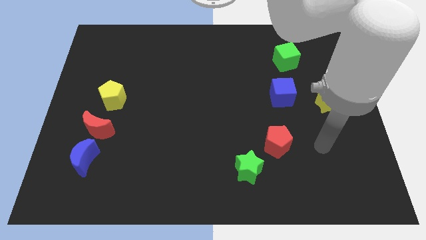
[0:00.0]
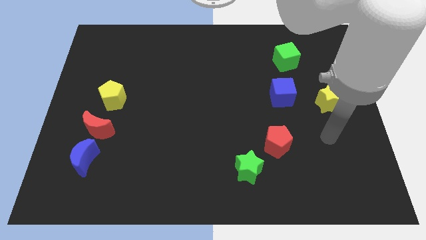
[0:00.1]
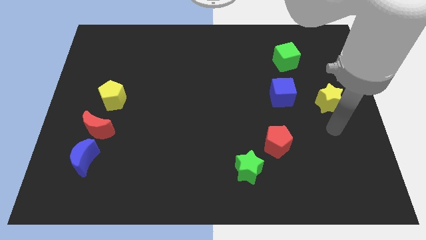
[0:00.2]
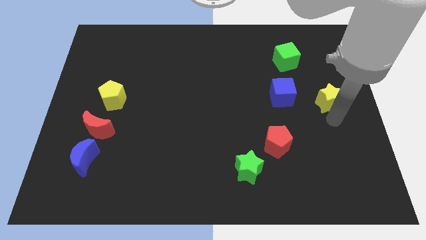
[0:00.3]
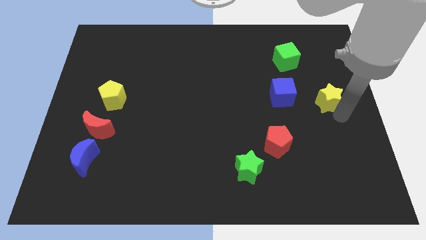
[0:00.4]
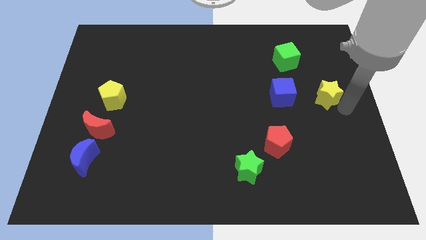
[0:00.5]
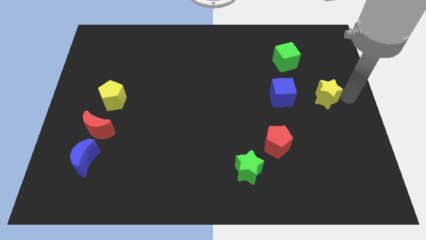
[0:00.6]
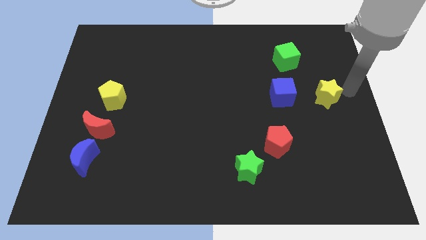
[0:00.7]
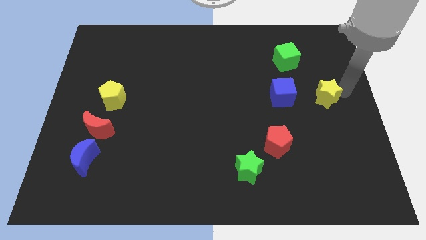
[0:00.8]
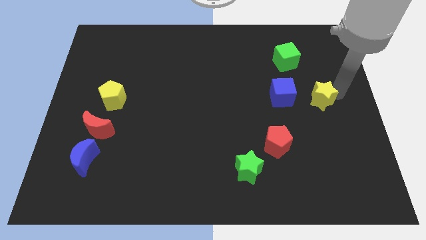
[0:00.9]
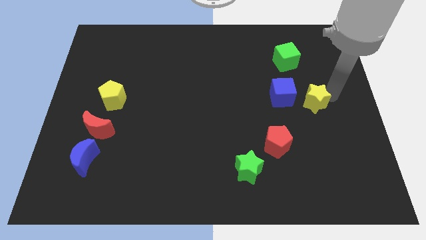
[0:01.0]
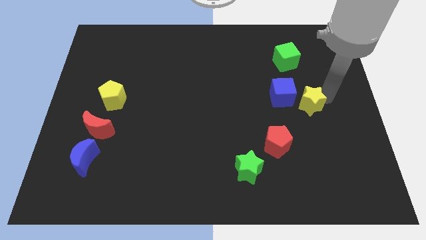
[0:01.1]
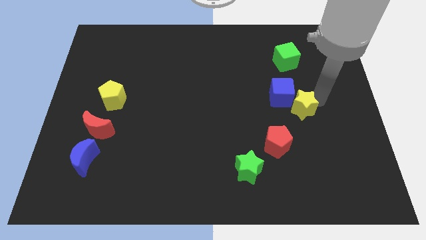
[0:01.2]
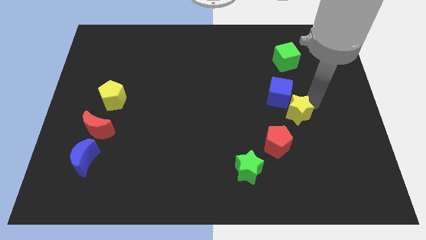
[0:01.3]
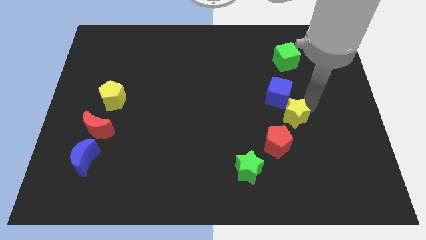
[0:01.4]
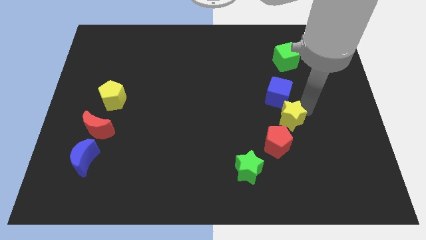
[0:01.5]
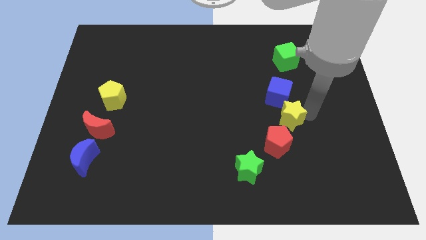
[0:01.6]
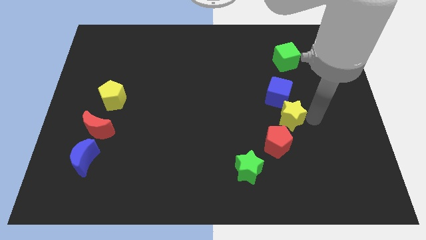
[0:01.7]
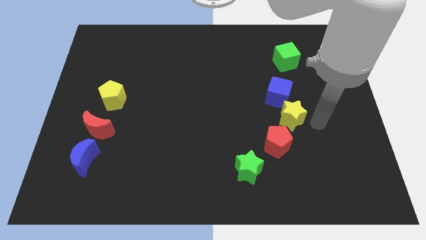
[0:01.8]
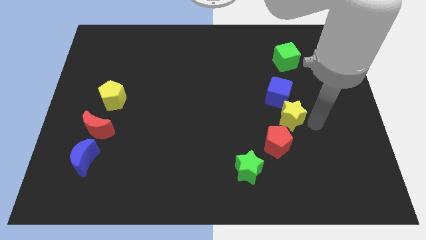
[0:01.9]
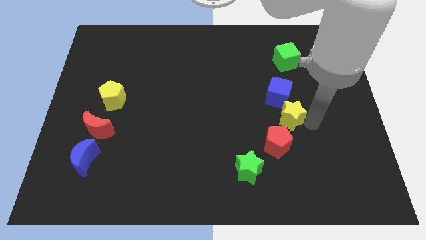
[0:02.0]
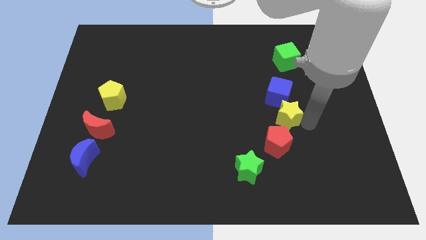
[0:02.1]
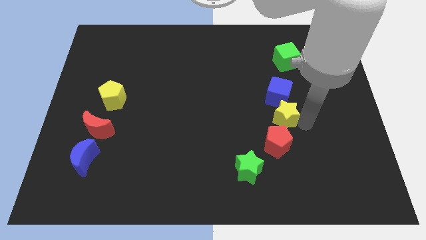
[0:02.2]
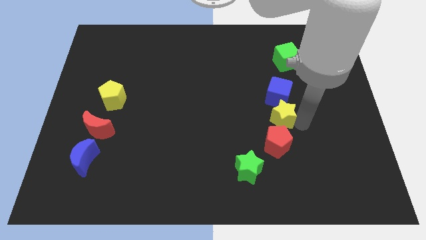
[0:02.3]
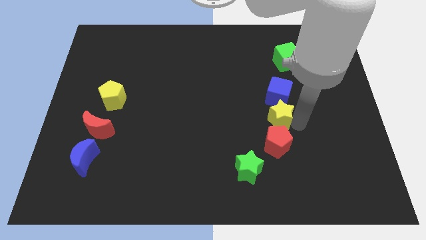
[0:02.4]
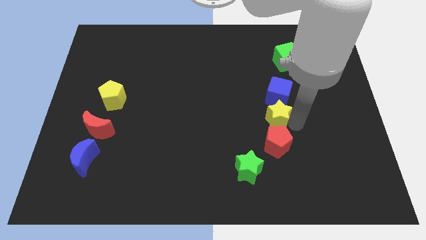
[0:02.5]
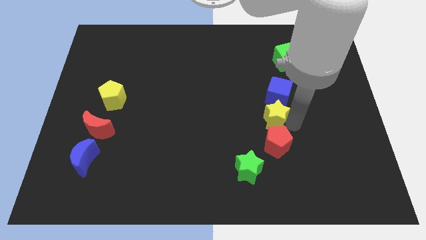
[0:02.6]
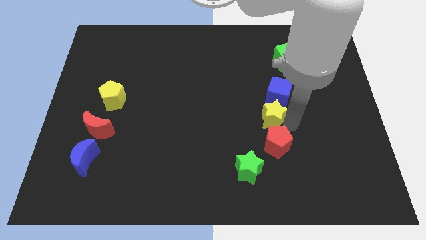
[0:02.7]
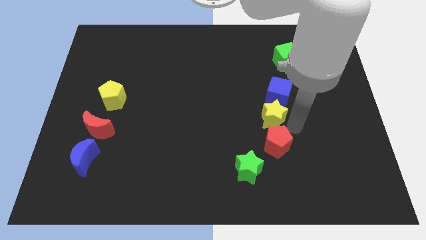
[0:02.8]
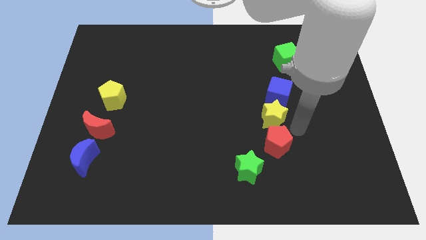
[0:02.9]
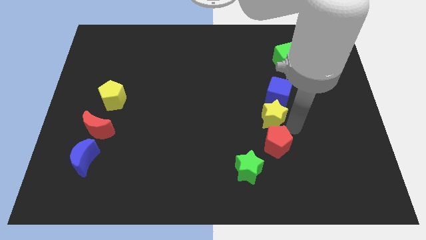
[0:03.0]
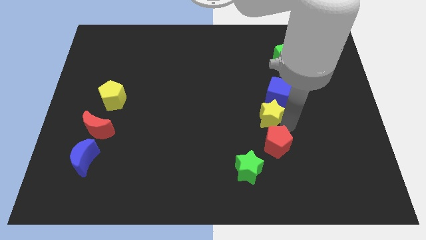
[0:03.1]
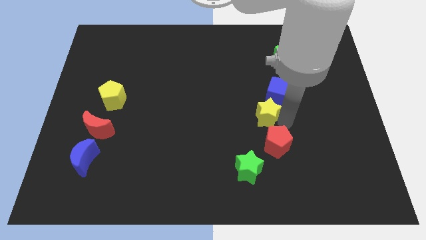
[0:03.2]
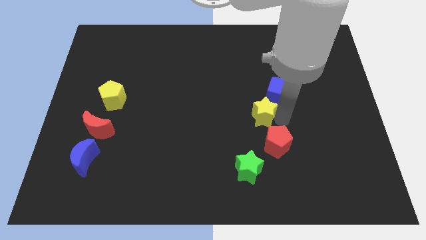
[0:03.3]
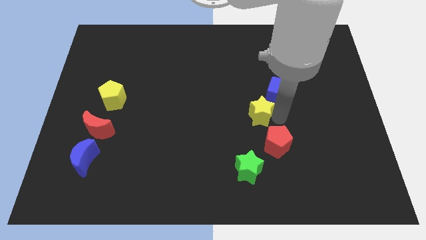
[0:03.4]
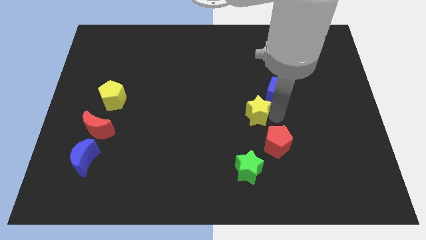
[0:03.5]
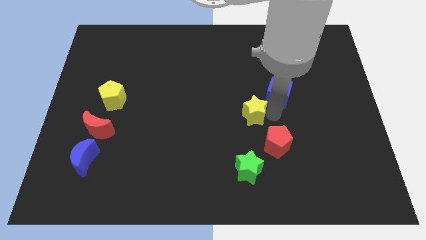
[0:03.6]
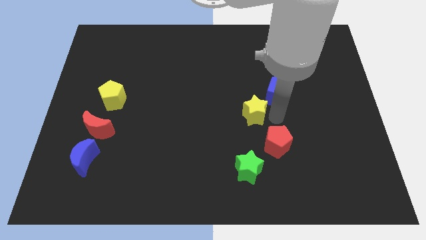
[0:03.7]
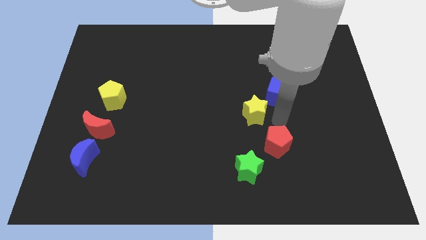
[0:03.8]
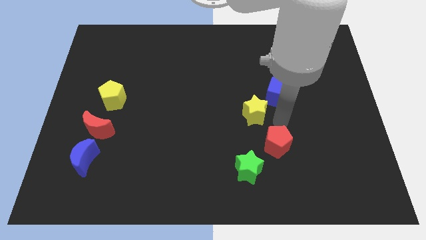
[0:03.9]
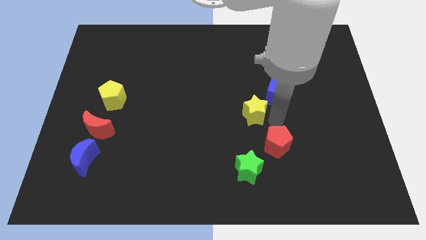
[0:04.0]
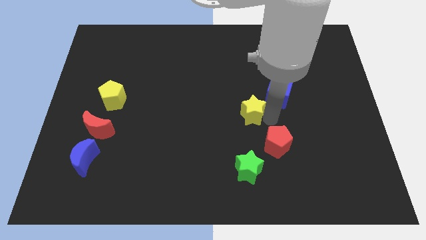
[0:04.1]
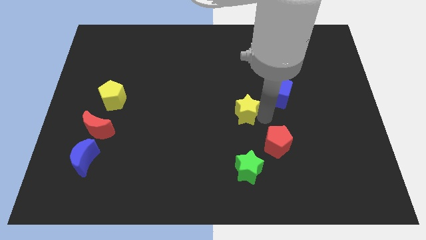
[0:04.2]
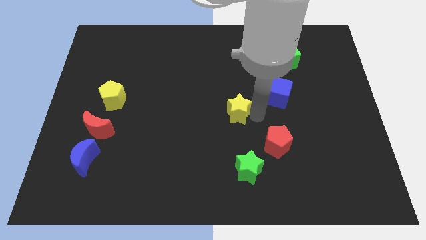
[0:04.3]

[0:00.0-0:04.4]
move the yellow star left

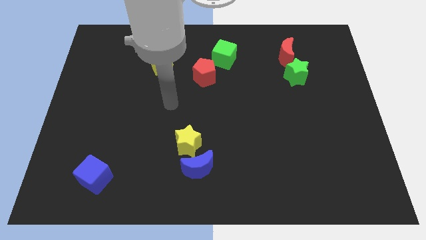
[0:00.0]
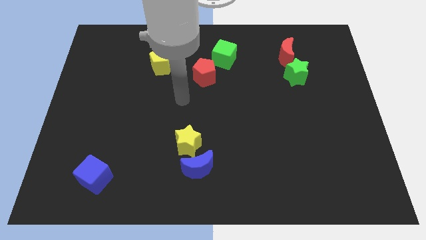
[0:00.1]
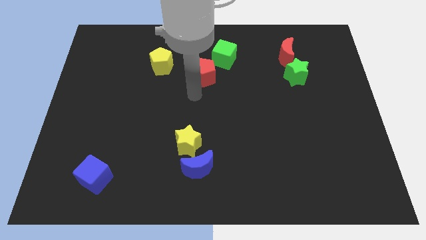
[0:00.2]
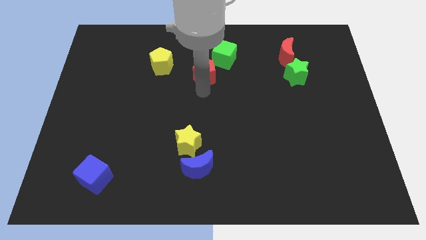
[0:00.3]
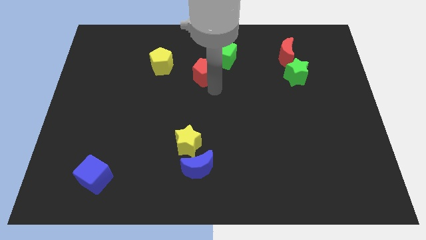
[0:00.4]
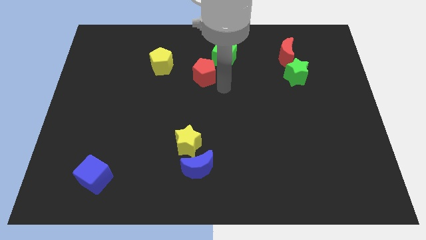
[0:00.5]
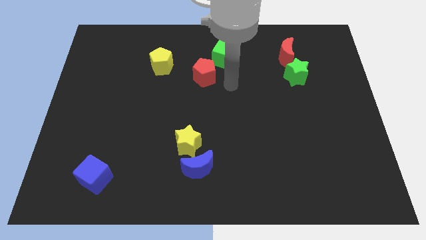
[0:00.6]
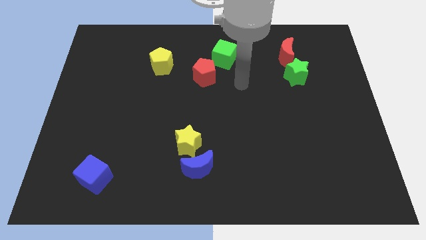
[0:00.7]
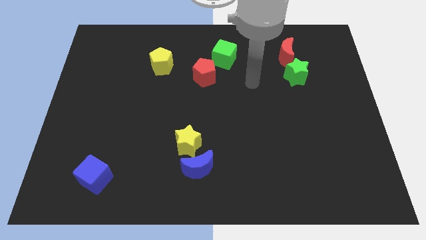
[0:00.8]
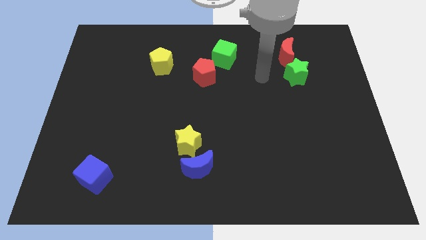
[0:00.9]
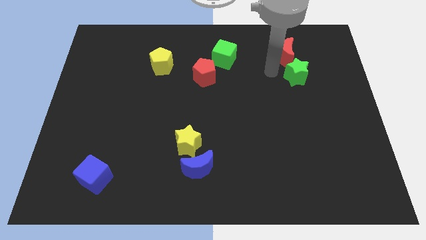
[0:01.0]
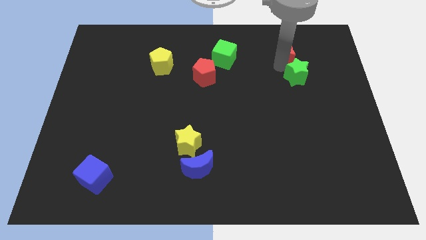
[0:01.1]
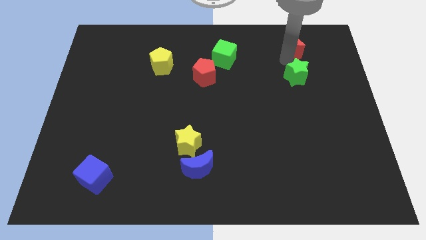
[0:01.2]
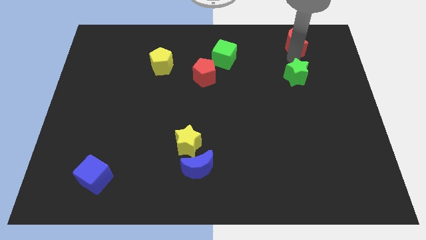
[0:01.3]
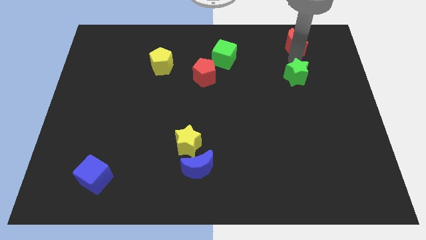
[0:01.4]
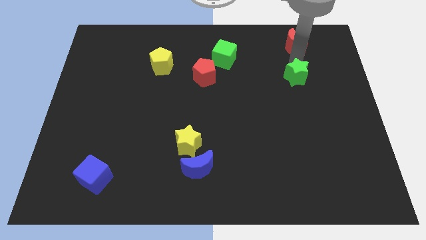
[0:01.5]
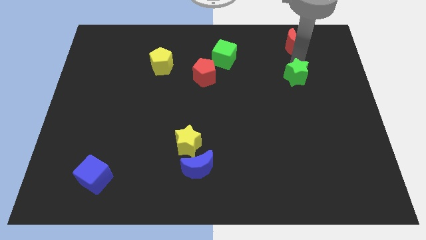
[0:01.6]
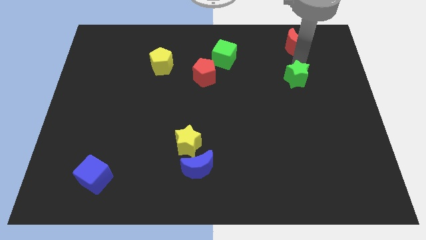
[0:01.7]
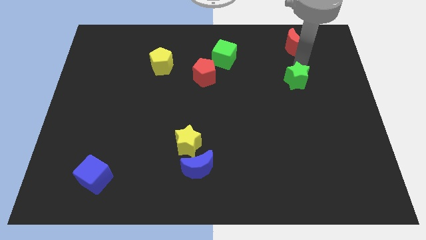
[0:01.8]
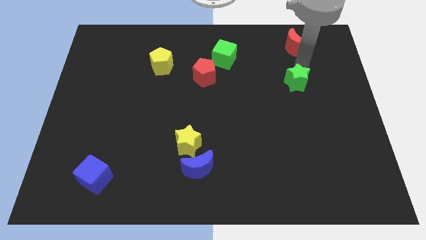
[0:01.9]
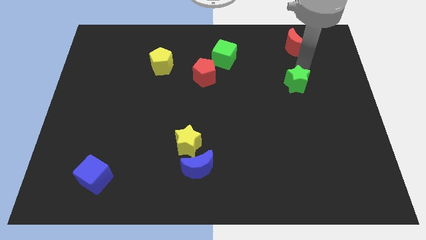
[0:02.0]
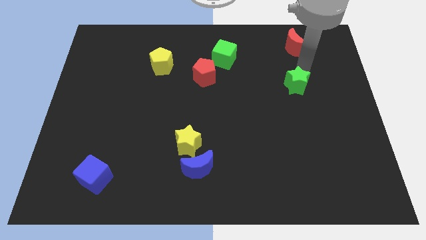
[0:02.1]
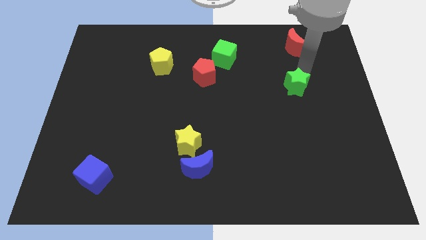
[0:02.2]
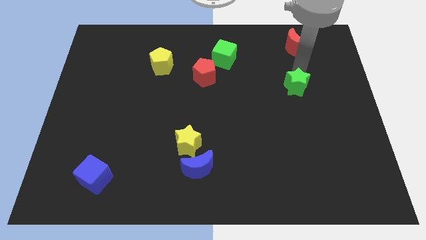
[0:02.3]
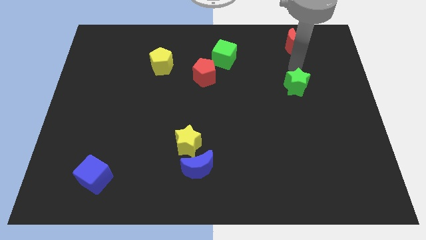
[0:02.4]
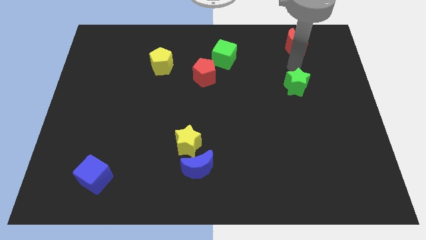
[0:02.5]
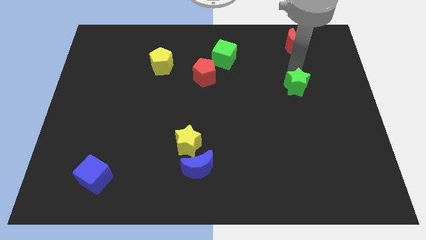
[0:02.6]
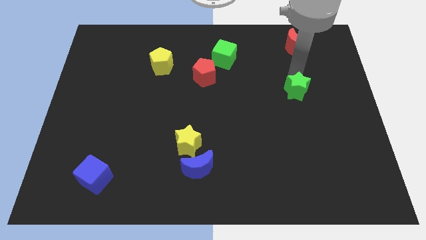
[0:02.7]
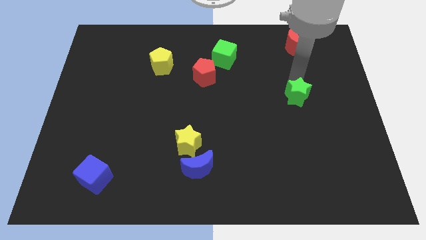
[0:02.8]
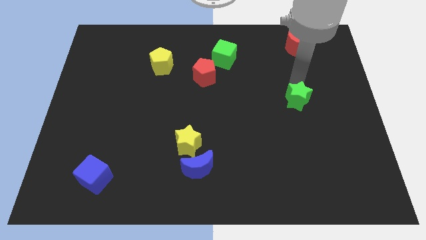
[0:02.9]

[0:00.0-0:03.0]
move the green star somewhat down

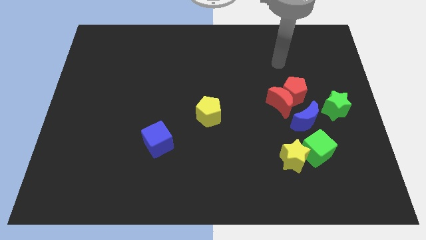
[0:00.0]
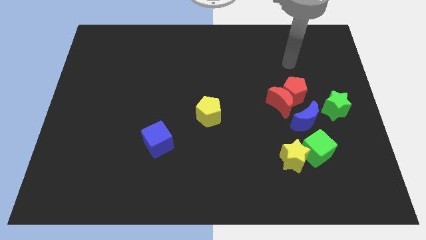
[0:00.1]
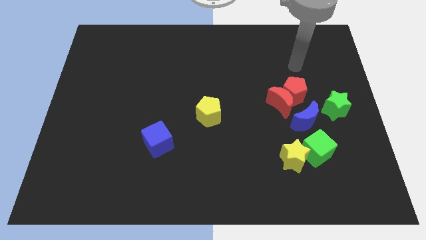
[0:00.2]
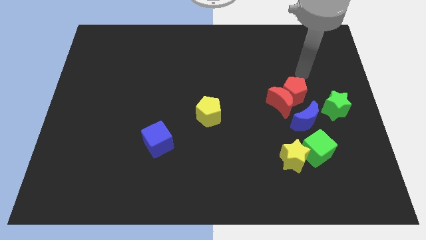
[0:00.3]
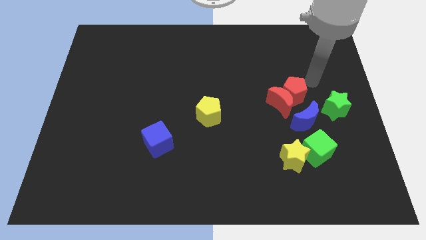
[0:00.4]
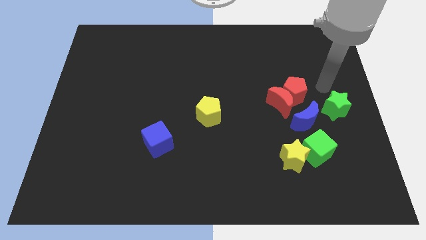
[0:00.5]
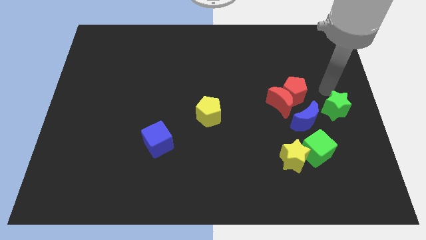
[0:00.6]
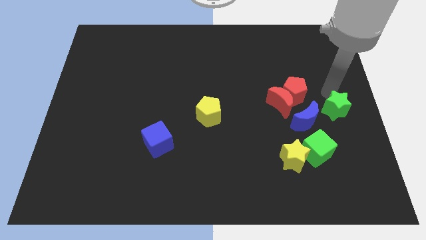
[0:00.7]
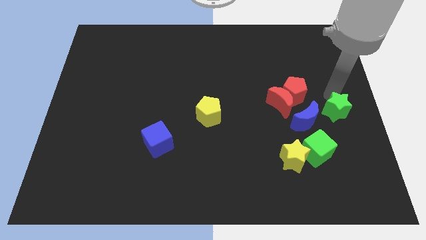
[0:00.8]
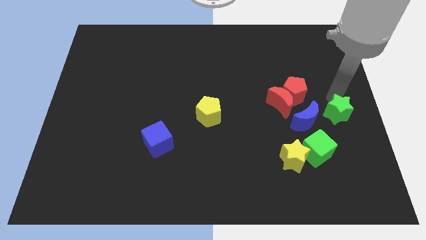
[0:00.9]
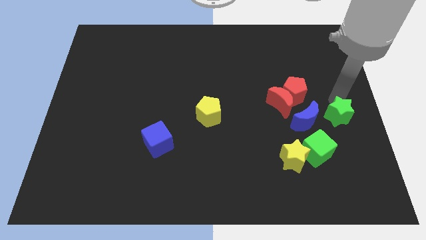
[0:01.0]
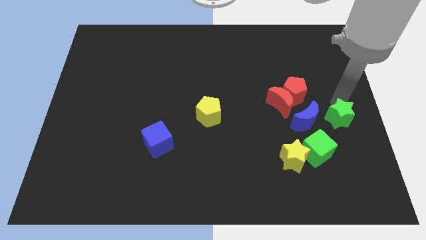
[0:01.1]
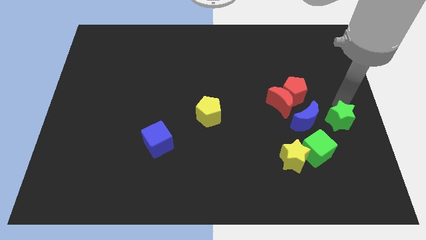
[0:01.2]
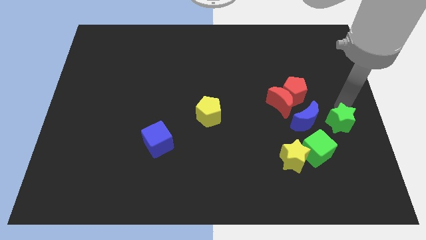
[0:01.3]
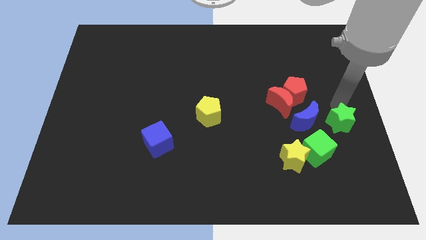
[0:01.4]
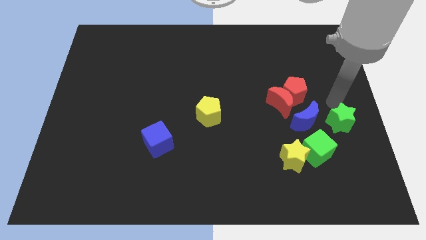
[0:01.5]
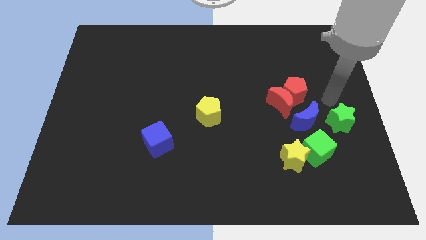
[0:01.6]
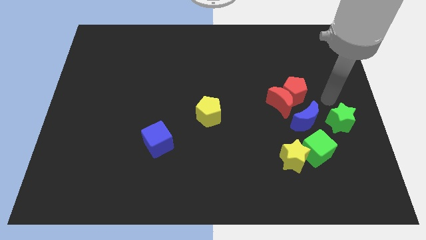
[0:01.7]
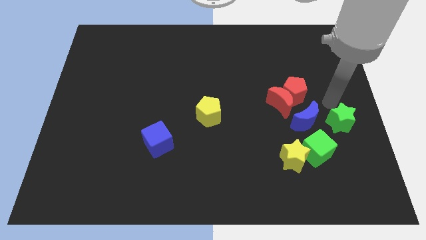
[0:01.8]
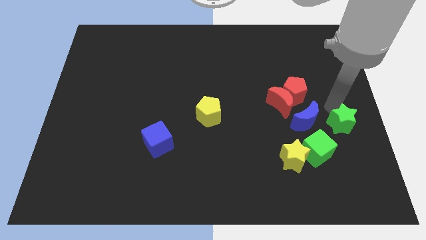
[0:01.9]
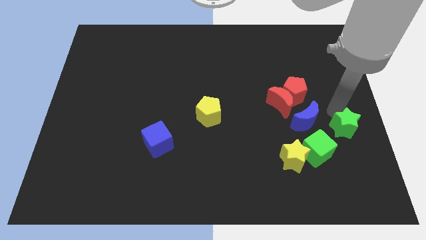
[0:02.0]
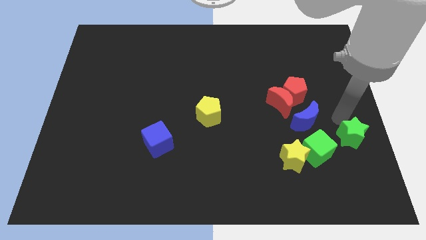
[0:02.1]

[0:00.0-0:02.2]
slightly move the green star down
